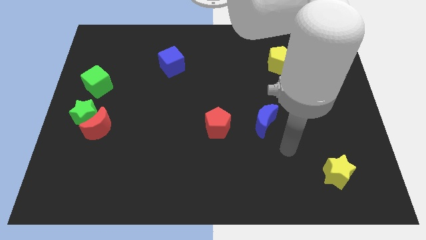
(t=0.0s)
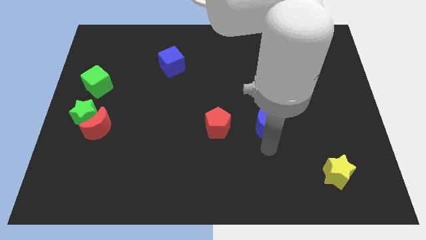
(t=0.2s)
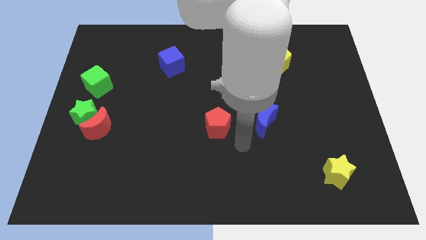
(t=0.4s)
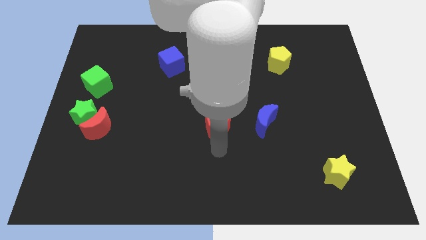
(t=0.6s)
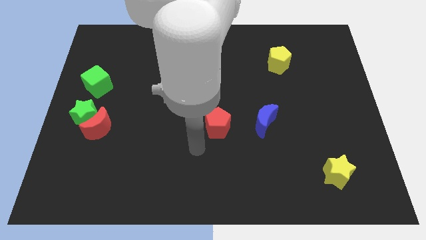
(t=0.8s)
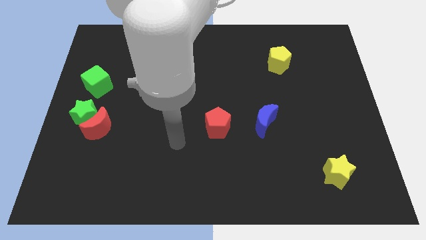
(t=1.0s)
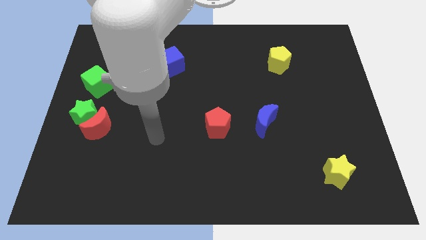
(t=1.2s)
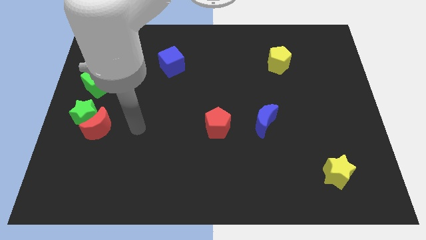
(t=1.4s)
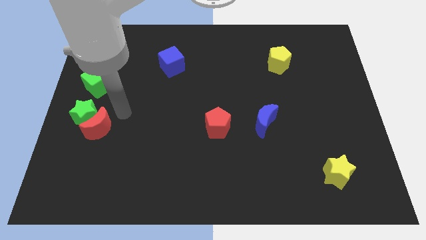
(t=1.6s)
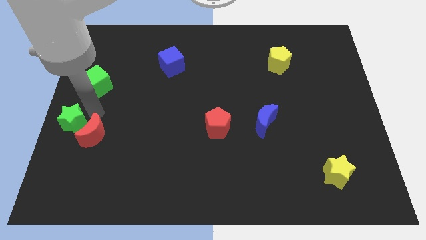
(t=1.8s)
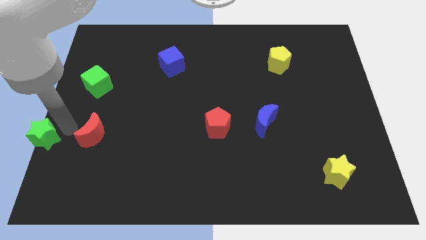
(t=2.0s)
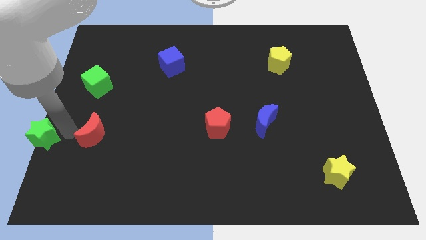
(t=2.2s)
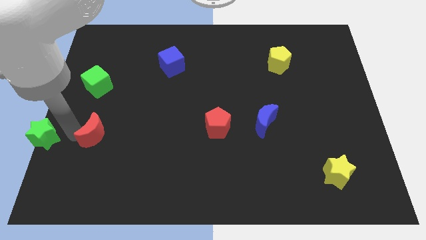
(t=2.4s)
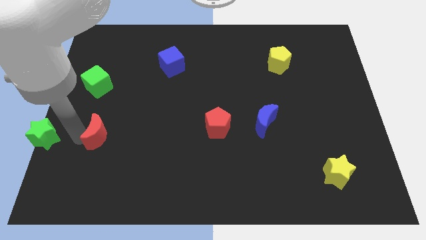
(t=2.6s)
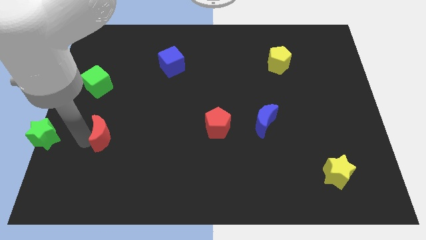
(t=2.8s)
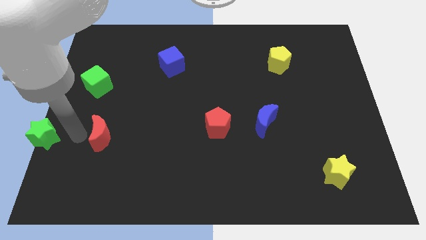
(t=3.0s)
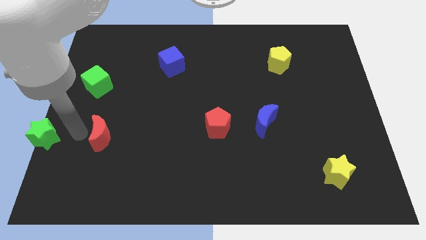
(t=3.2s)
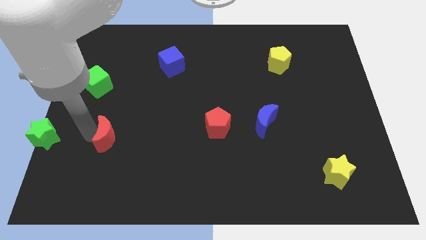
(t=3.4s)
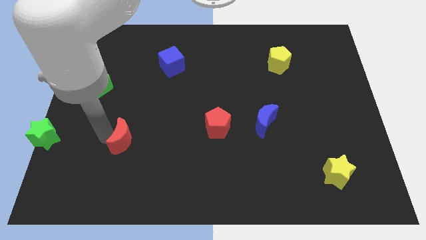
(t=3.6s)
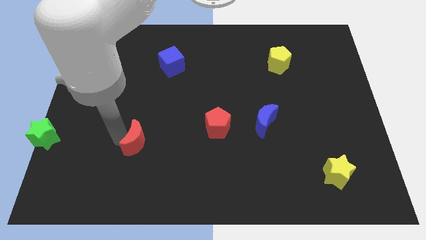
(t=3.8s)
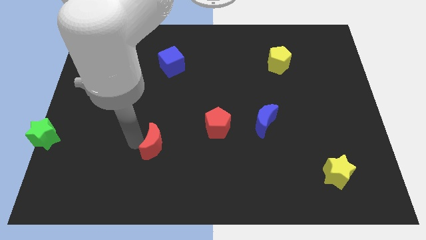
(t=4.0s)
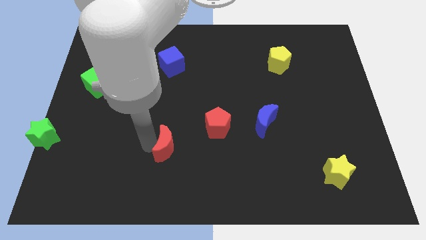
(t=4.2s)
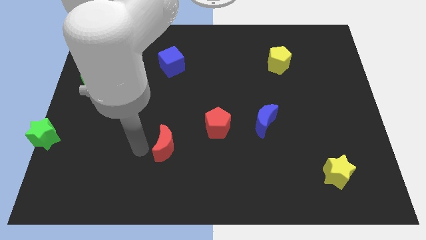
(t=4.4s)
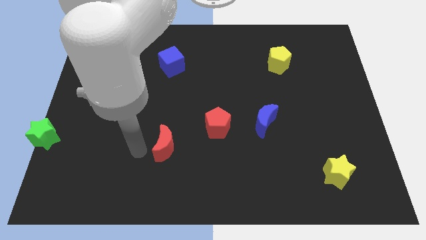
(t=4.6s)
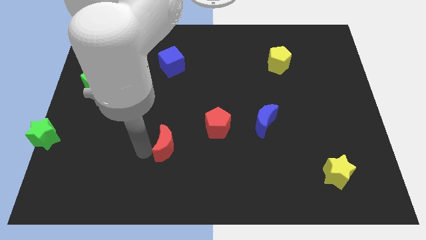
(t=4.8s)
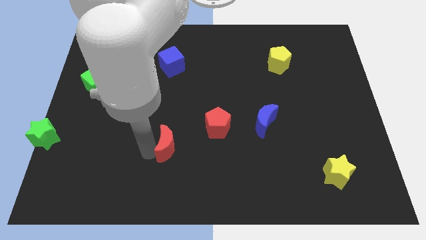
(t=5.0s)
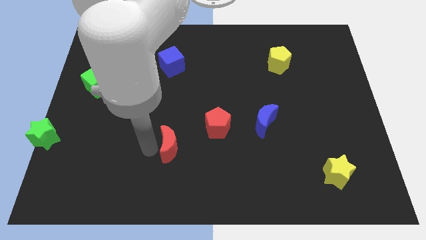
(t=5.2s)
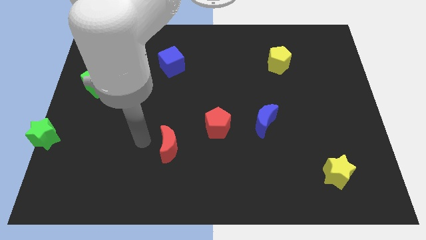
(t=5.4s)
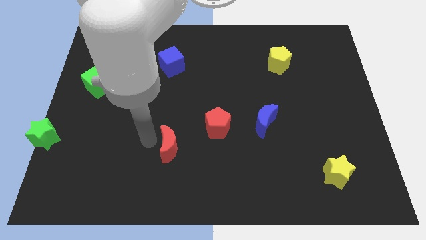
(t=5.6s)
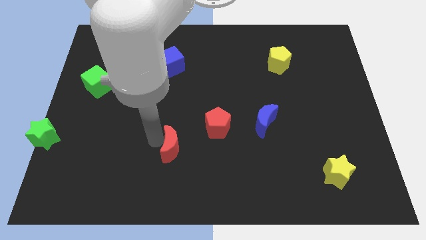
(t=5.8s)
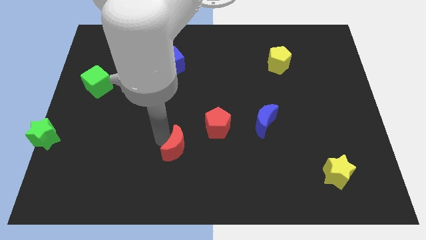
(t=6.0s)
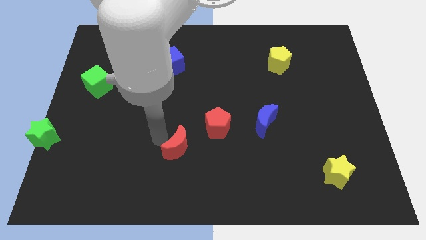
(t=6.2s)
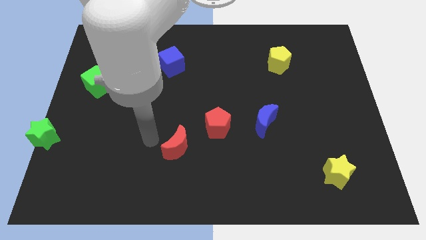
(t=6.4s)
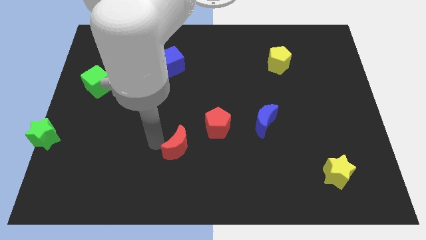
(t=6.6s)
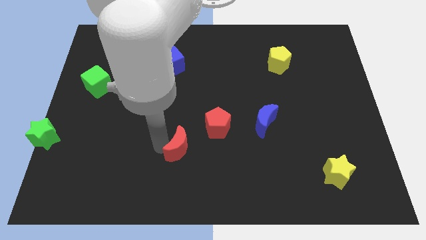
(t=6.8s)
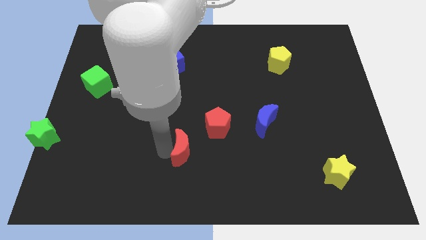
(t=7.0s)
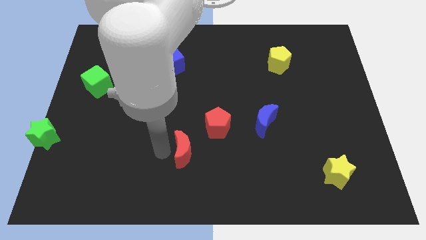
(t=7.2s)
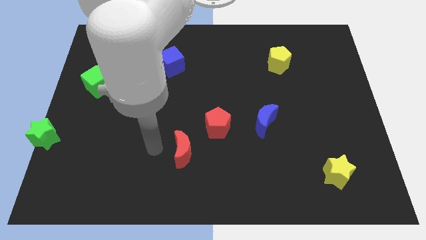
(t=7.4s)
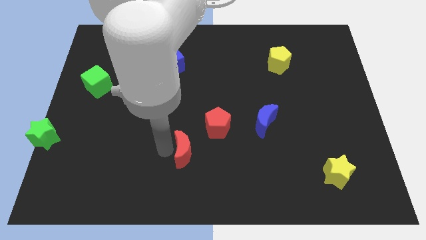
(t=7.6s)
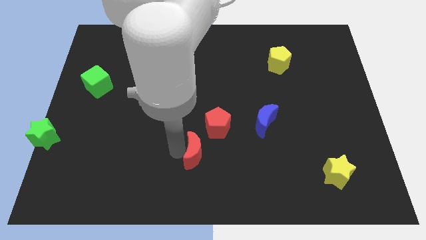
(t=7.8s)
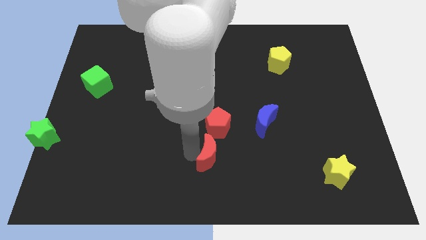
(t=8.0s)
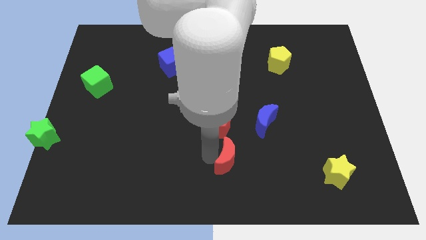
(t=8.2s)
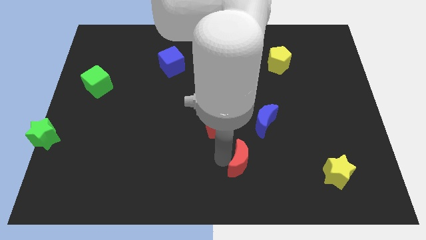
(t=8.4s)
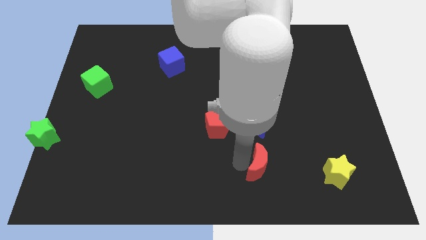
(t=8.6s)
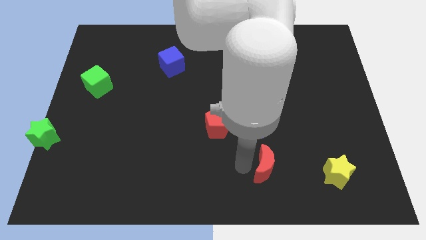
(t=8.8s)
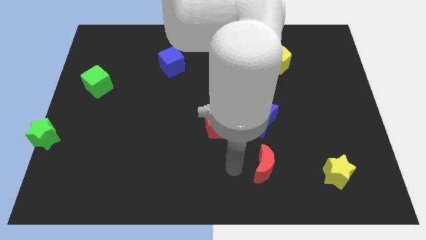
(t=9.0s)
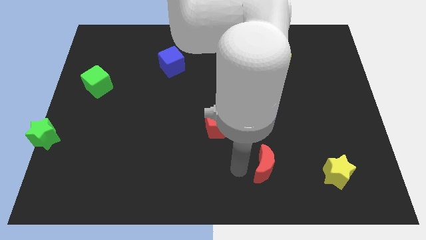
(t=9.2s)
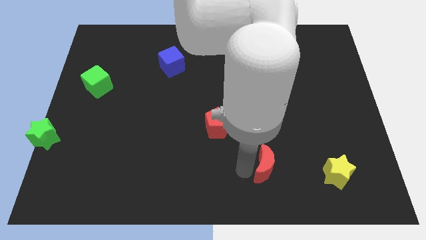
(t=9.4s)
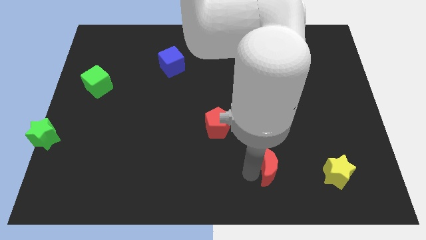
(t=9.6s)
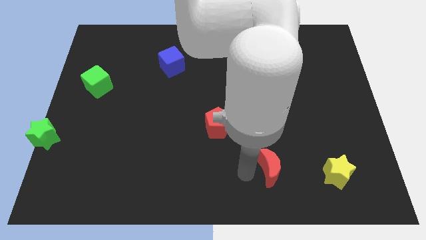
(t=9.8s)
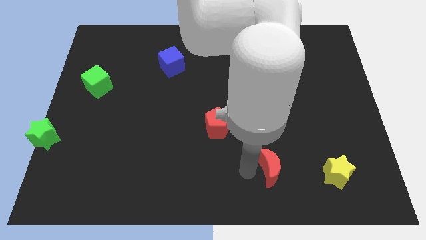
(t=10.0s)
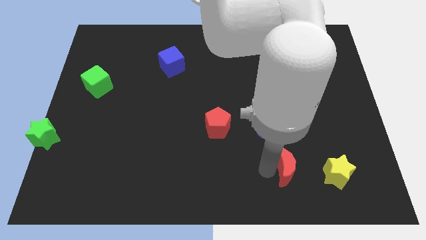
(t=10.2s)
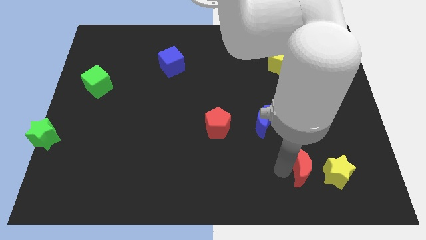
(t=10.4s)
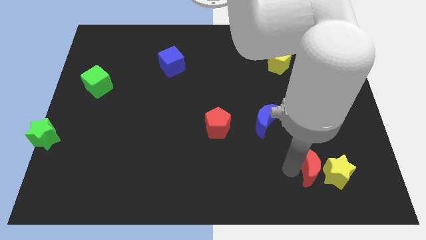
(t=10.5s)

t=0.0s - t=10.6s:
put the red moon towards the yellow star

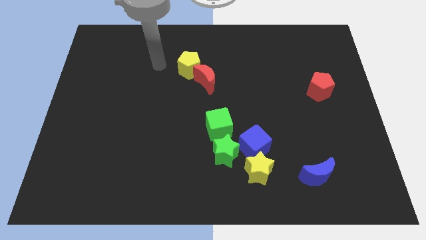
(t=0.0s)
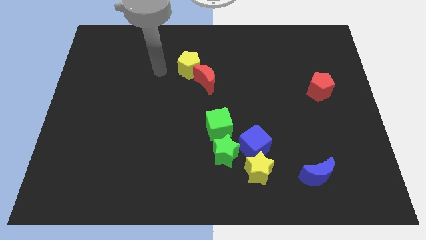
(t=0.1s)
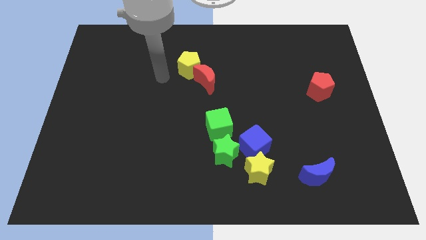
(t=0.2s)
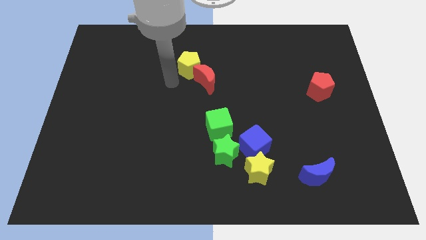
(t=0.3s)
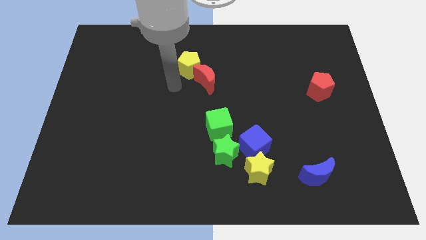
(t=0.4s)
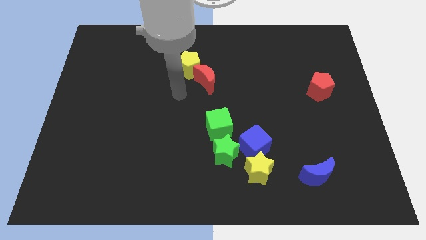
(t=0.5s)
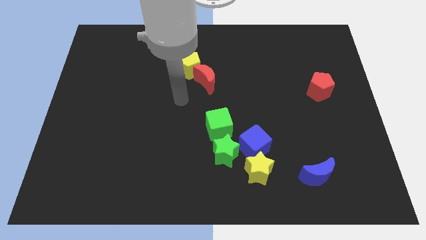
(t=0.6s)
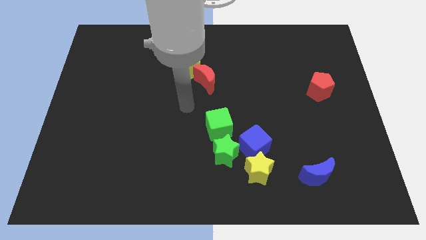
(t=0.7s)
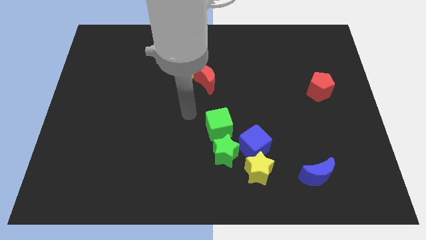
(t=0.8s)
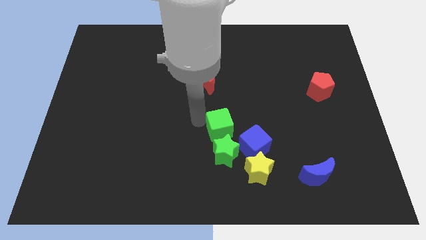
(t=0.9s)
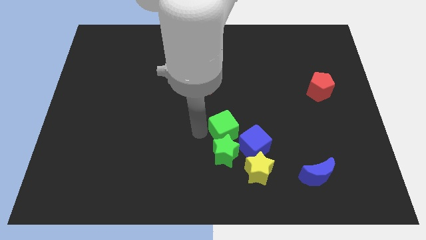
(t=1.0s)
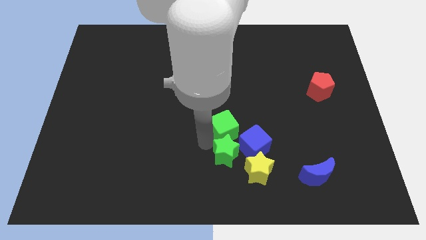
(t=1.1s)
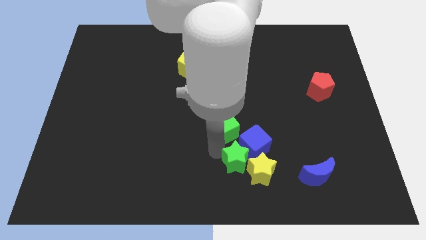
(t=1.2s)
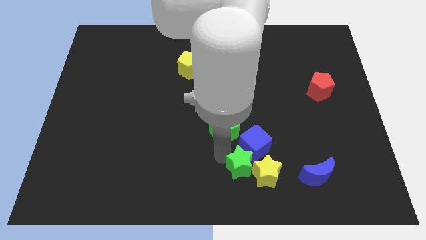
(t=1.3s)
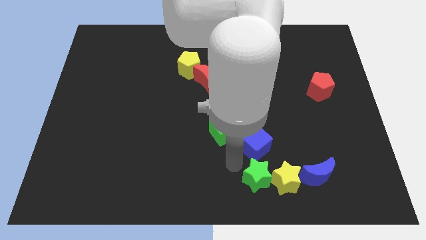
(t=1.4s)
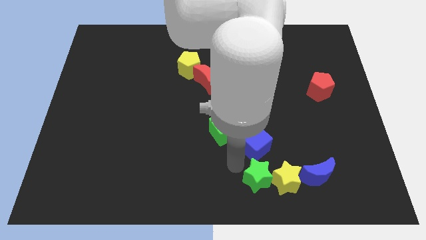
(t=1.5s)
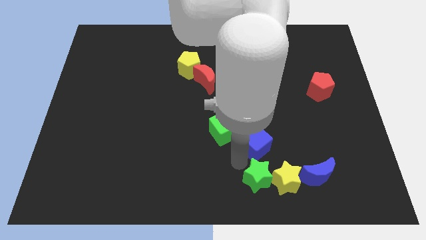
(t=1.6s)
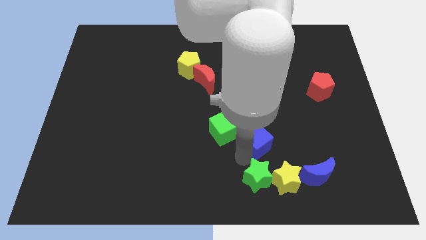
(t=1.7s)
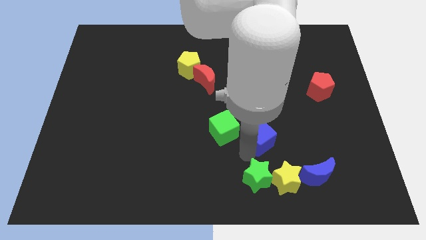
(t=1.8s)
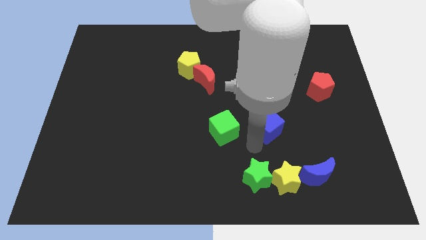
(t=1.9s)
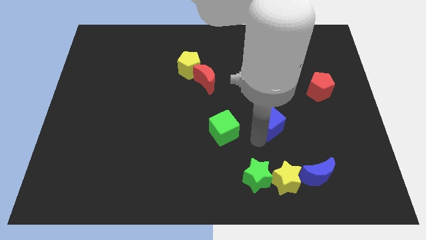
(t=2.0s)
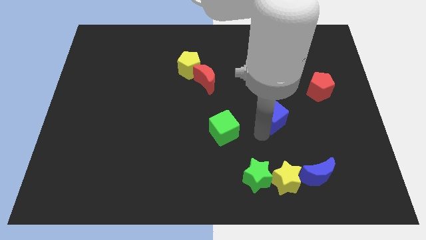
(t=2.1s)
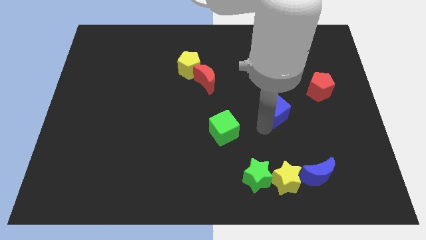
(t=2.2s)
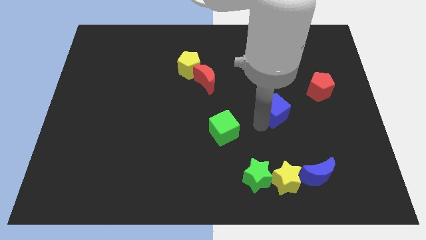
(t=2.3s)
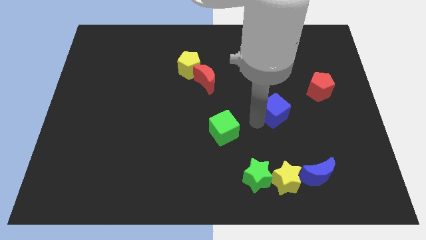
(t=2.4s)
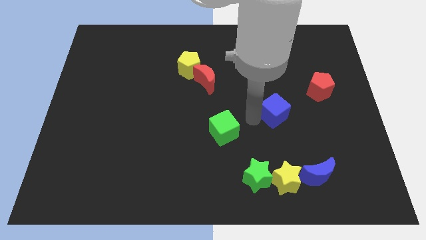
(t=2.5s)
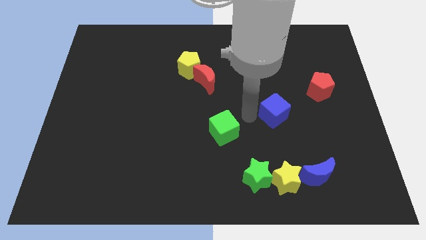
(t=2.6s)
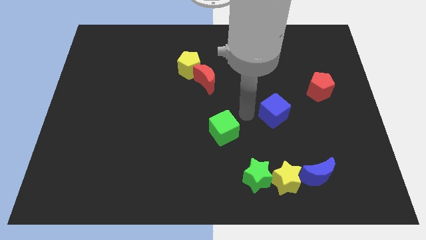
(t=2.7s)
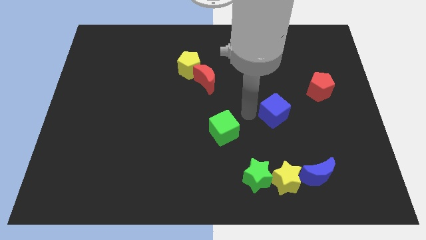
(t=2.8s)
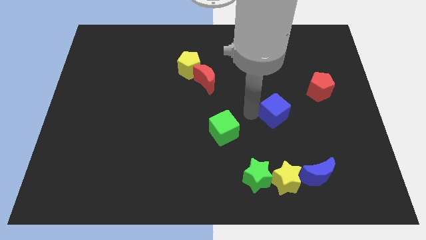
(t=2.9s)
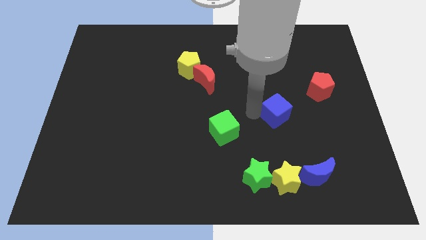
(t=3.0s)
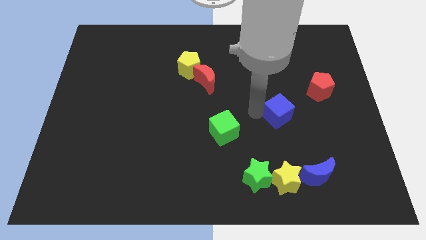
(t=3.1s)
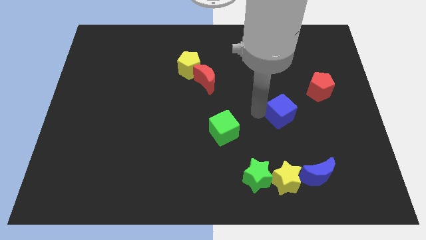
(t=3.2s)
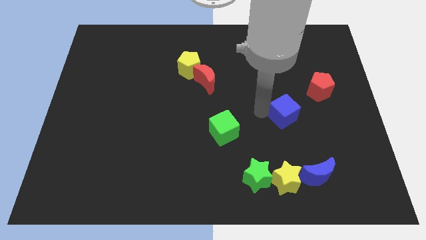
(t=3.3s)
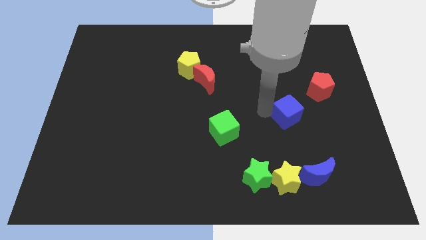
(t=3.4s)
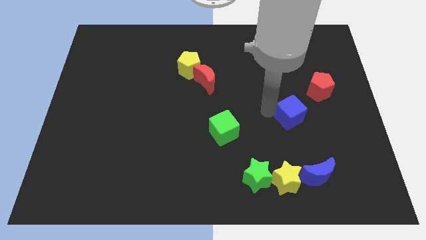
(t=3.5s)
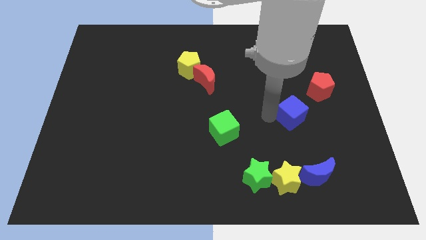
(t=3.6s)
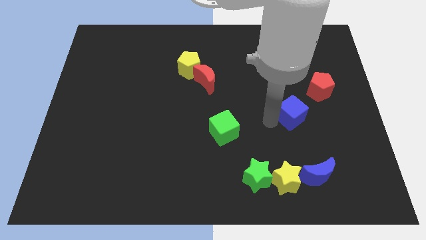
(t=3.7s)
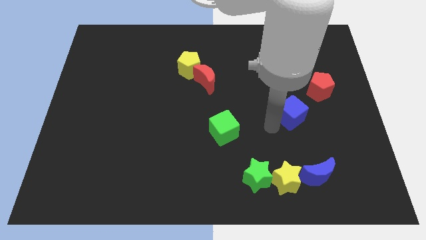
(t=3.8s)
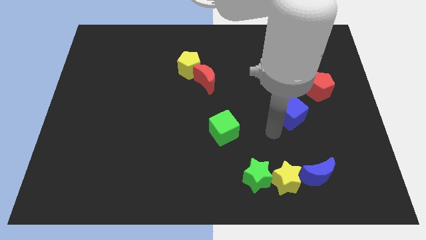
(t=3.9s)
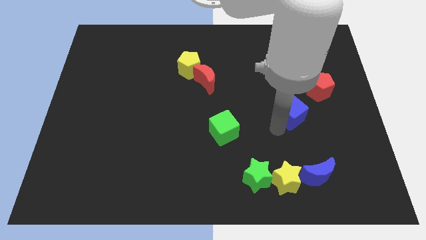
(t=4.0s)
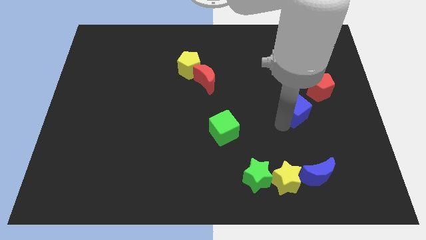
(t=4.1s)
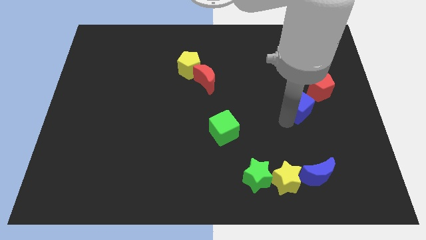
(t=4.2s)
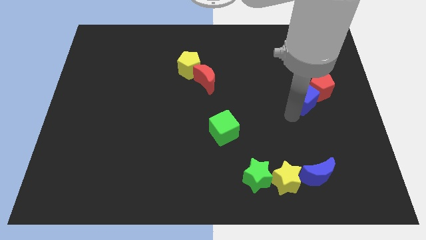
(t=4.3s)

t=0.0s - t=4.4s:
push the blue cube next to the red pentagon
